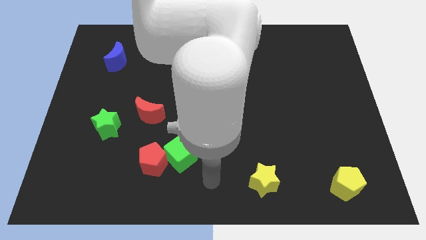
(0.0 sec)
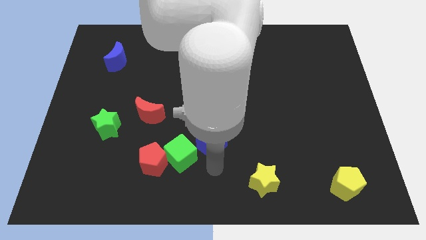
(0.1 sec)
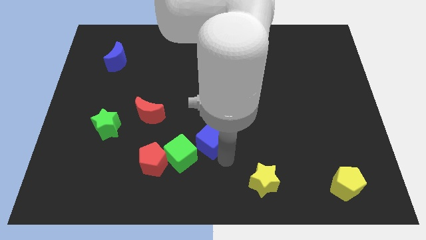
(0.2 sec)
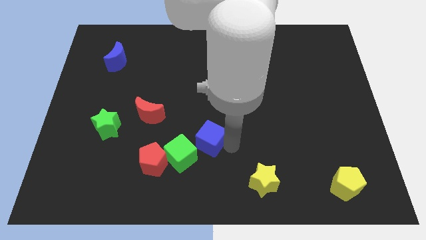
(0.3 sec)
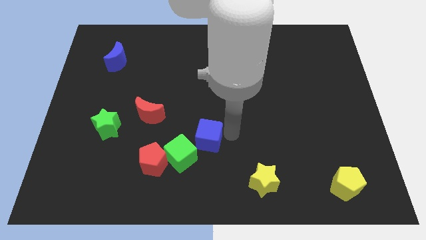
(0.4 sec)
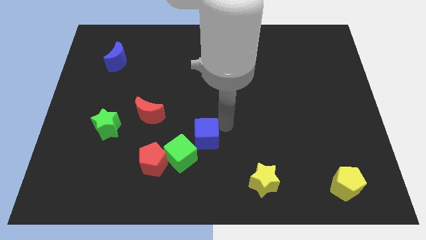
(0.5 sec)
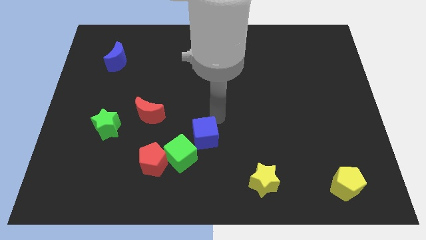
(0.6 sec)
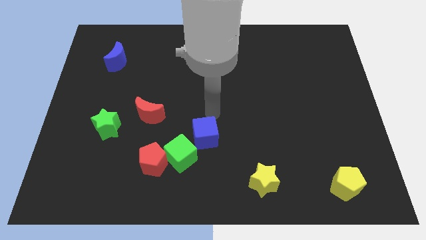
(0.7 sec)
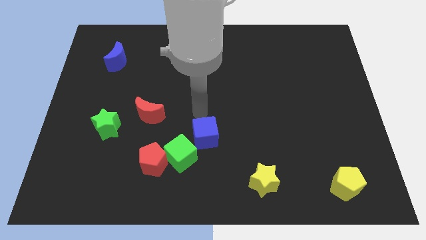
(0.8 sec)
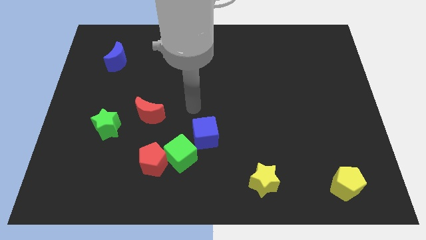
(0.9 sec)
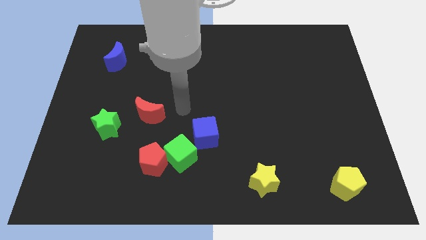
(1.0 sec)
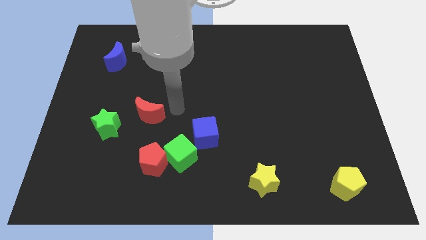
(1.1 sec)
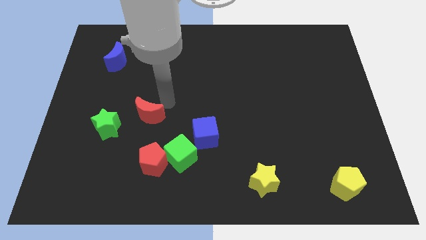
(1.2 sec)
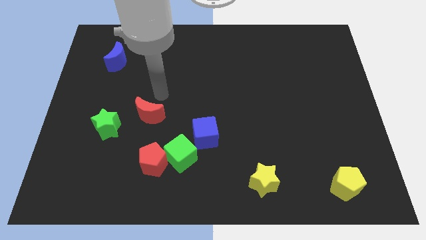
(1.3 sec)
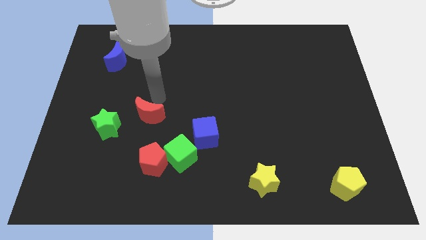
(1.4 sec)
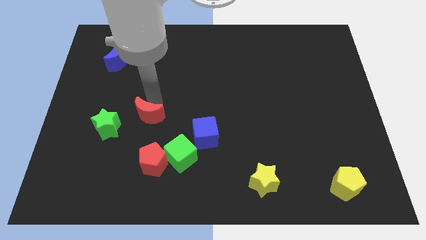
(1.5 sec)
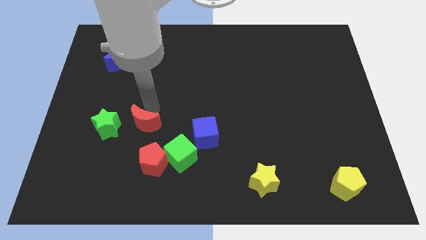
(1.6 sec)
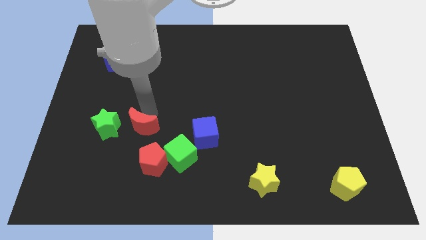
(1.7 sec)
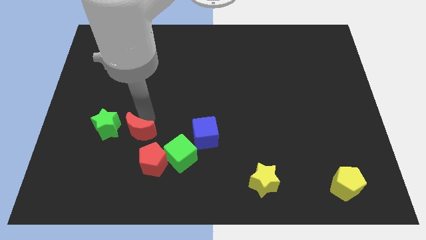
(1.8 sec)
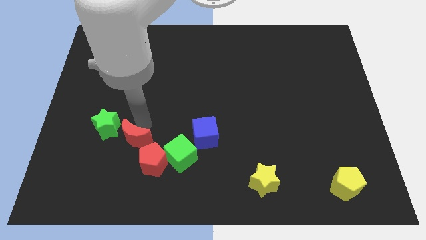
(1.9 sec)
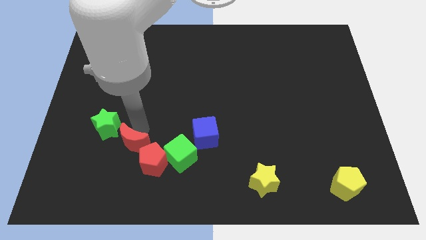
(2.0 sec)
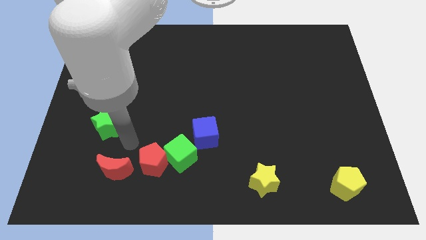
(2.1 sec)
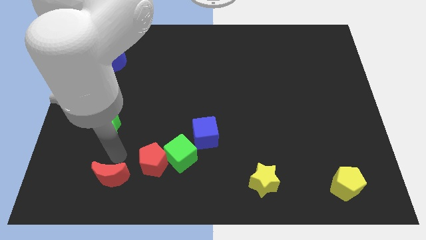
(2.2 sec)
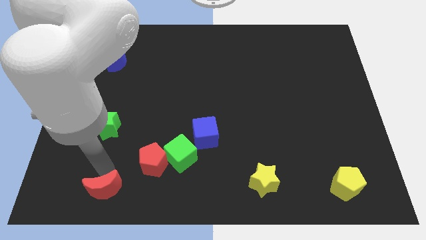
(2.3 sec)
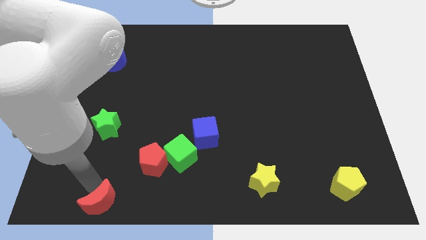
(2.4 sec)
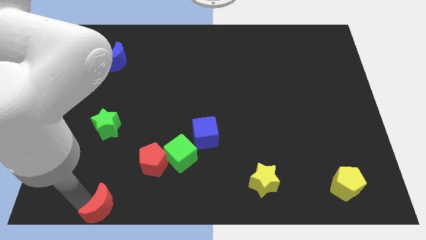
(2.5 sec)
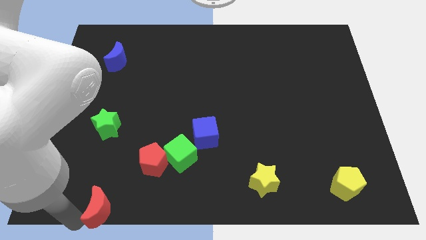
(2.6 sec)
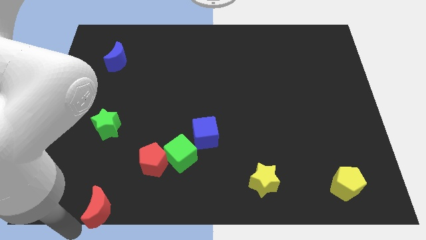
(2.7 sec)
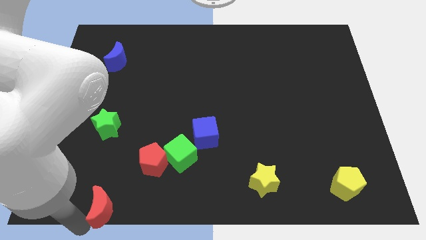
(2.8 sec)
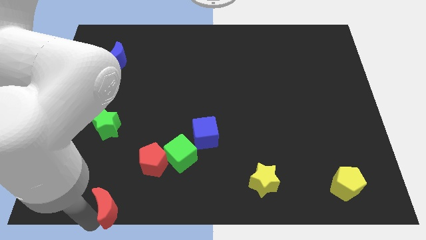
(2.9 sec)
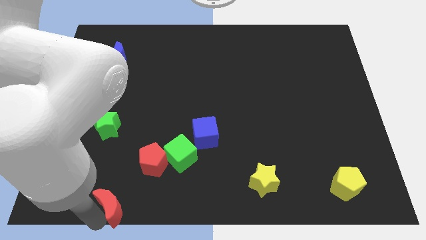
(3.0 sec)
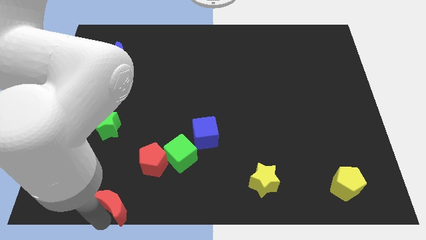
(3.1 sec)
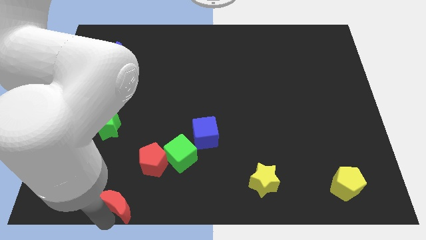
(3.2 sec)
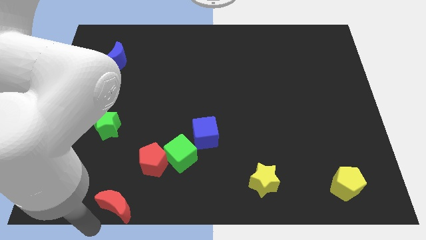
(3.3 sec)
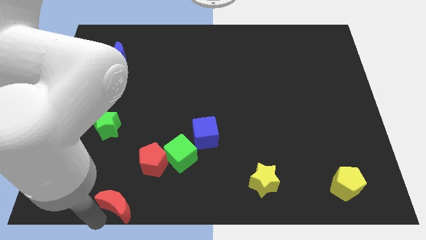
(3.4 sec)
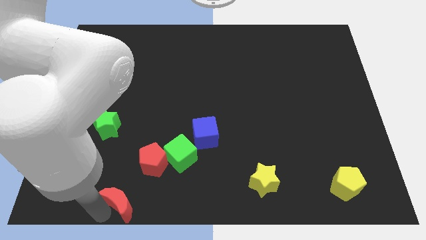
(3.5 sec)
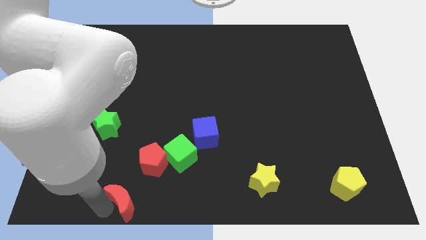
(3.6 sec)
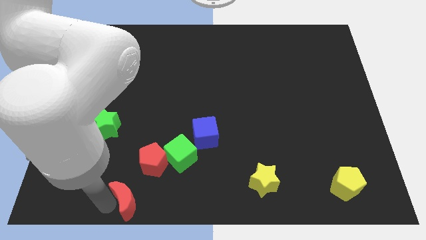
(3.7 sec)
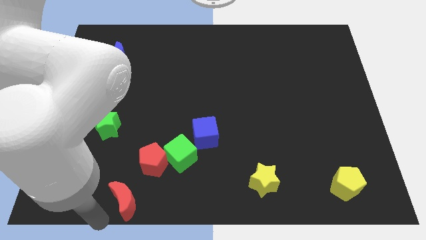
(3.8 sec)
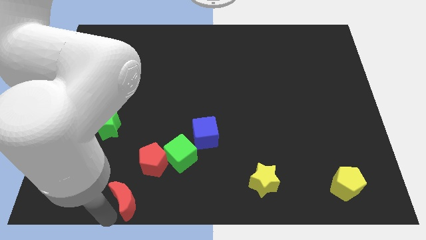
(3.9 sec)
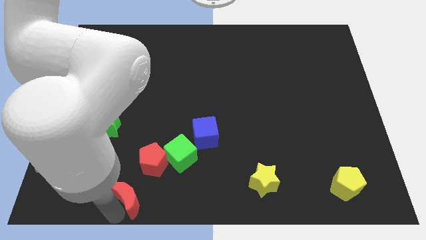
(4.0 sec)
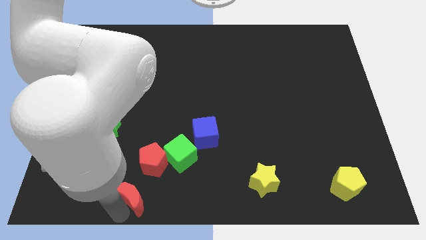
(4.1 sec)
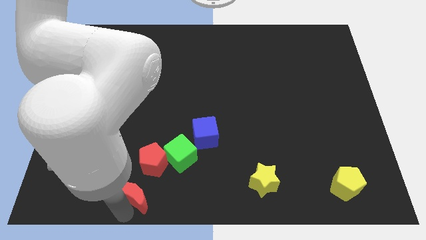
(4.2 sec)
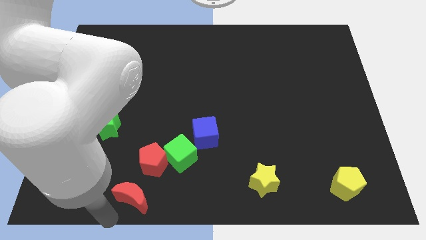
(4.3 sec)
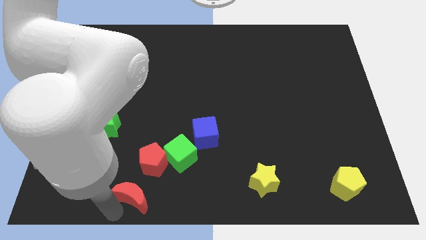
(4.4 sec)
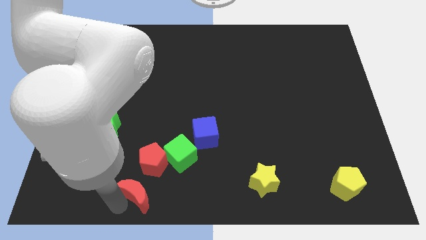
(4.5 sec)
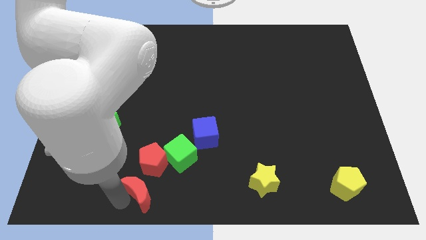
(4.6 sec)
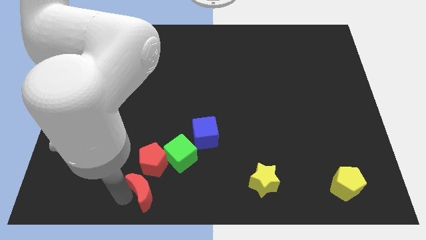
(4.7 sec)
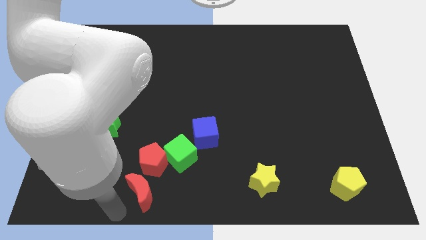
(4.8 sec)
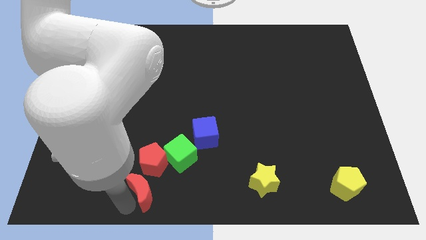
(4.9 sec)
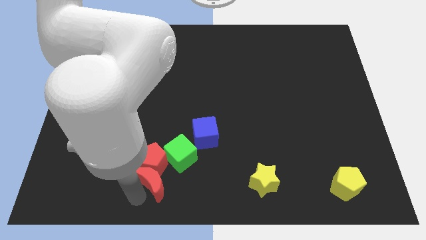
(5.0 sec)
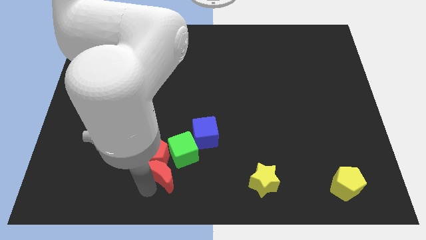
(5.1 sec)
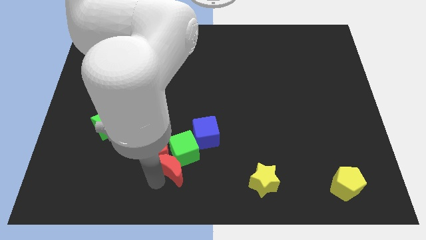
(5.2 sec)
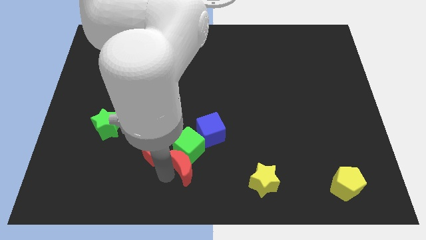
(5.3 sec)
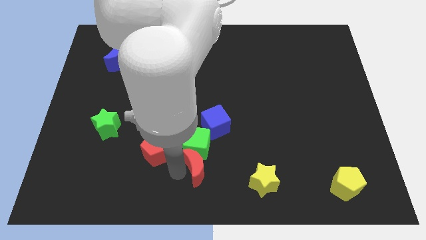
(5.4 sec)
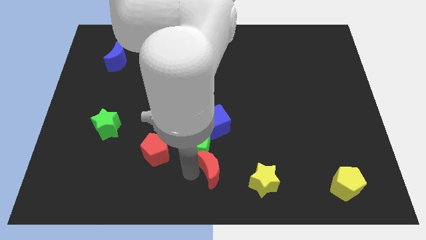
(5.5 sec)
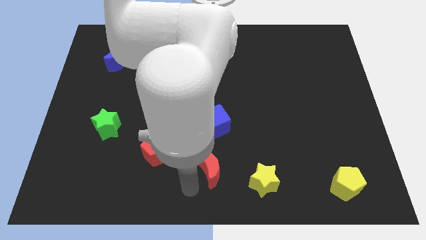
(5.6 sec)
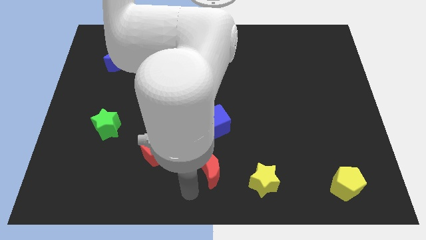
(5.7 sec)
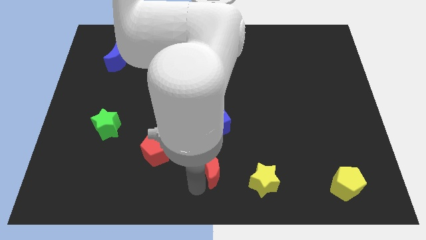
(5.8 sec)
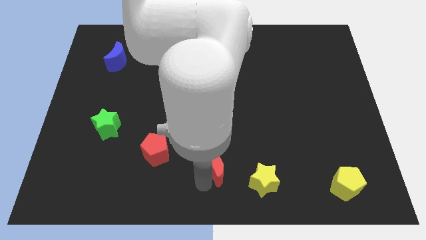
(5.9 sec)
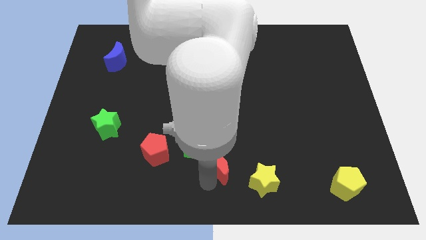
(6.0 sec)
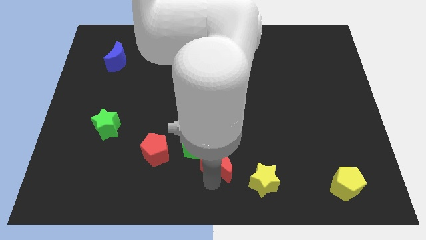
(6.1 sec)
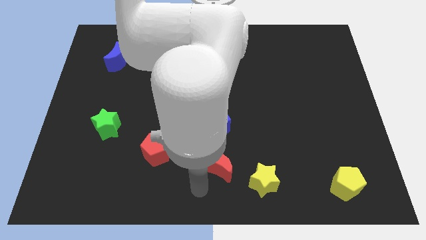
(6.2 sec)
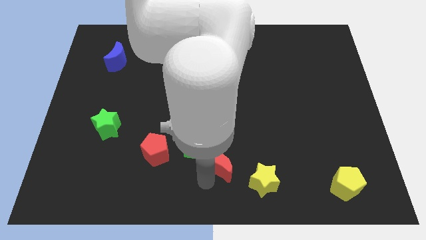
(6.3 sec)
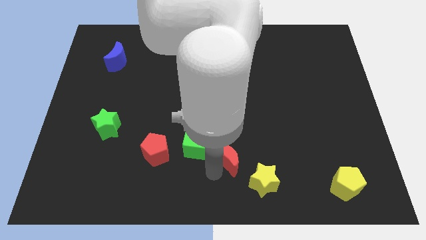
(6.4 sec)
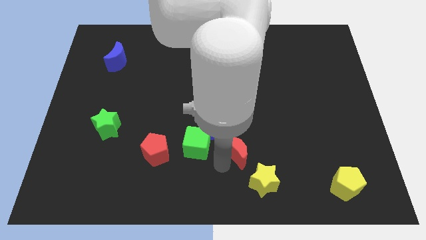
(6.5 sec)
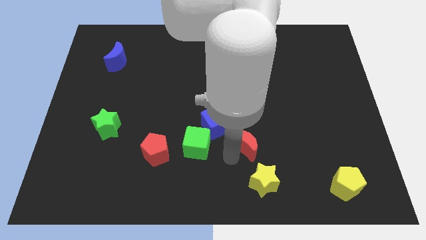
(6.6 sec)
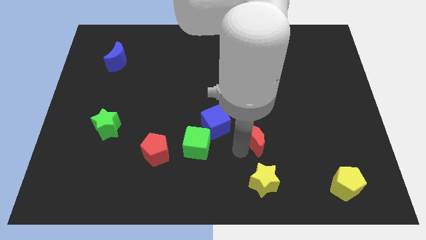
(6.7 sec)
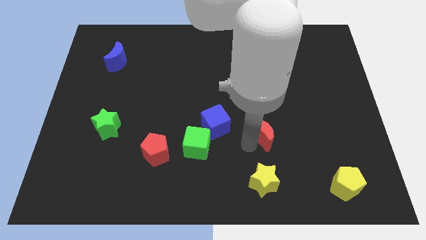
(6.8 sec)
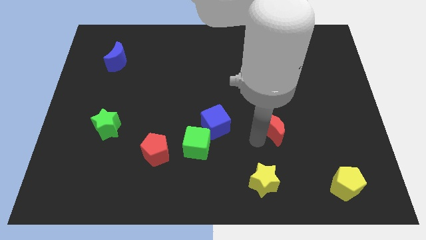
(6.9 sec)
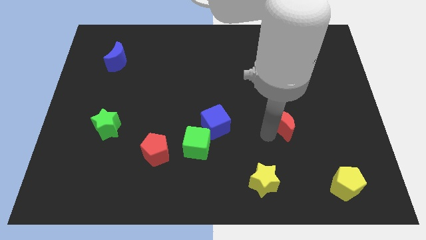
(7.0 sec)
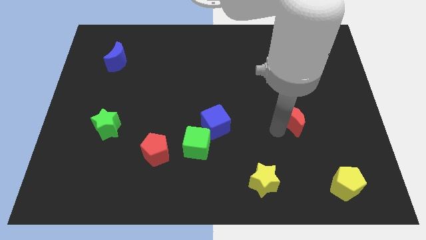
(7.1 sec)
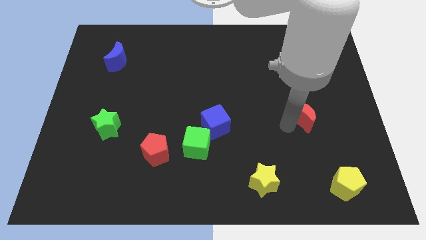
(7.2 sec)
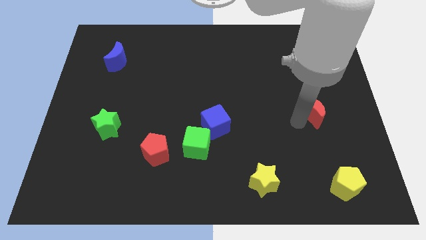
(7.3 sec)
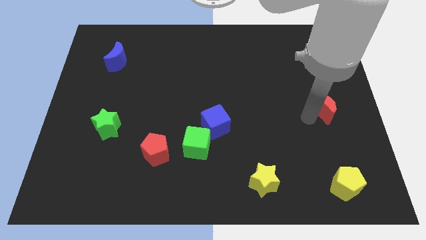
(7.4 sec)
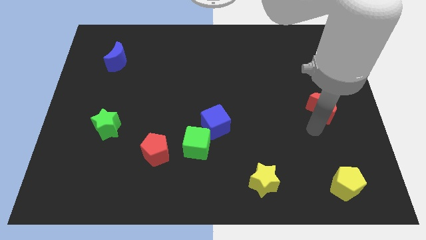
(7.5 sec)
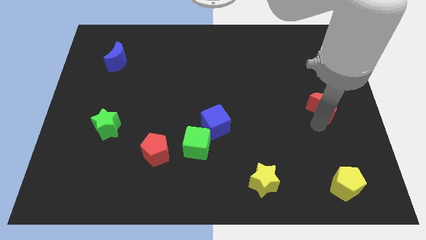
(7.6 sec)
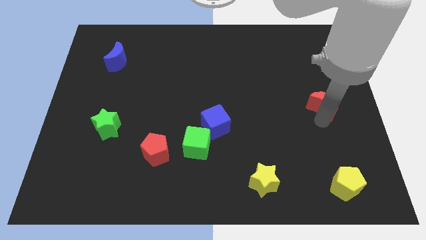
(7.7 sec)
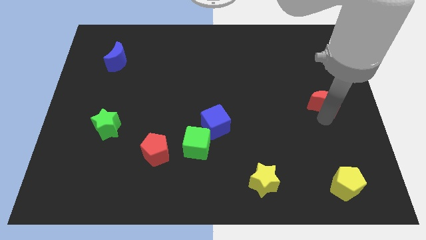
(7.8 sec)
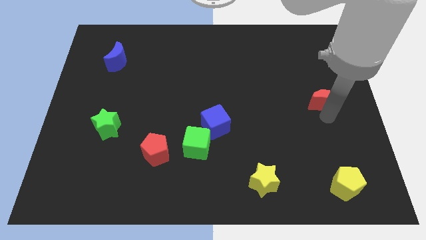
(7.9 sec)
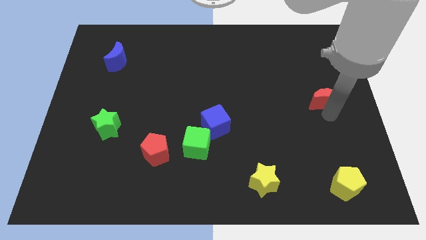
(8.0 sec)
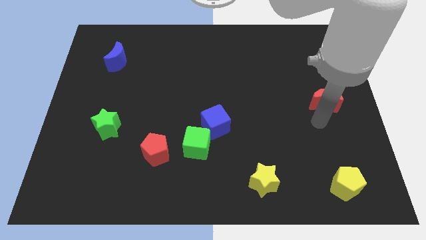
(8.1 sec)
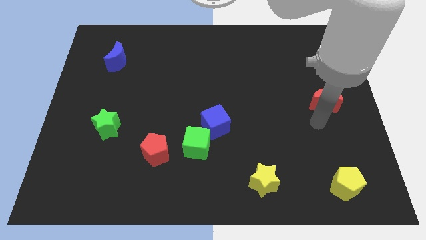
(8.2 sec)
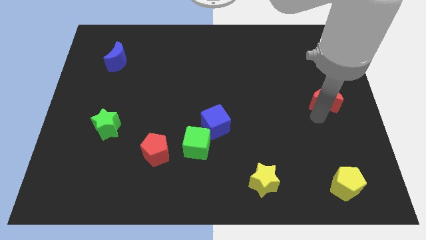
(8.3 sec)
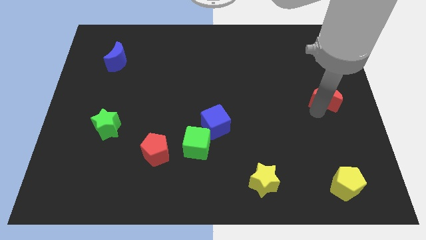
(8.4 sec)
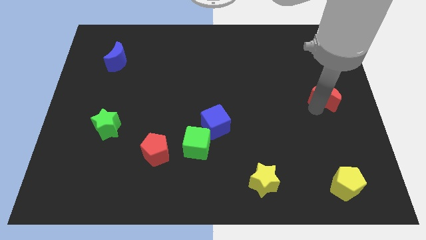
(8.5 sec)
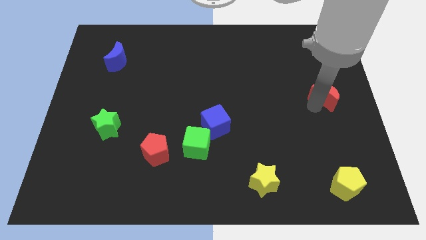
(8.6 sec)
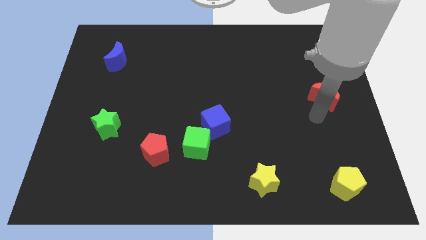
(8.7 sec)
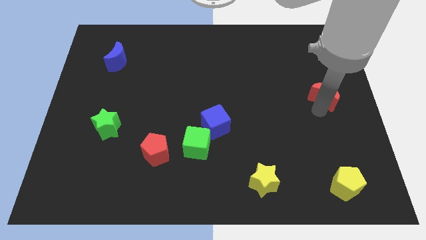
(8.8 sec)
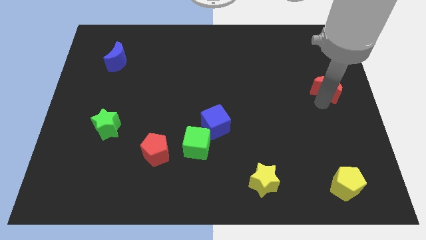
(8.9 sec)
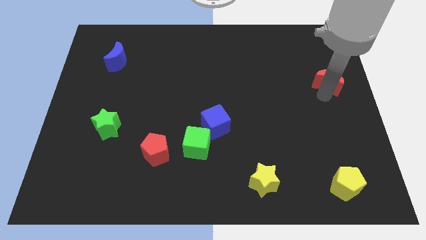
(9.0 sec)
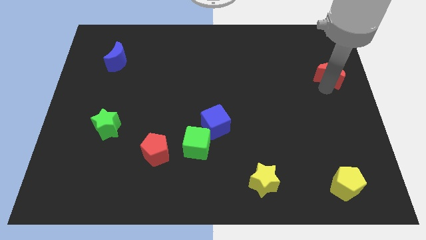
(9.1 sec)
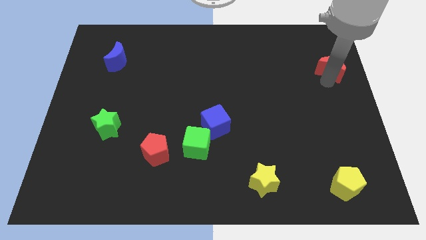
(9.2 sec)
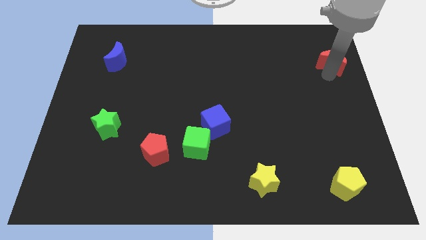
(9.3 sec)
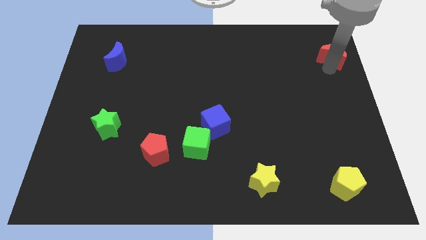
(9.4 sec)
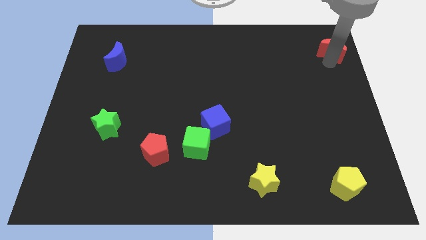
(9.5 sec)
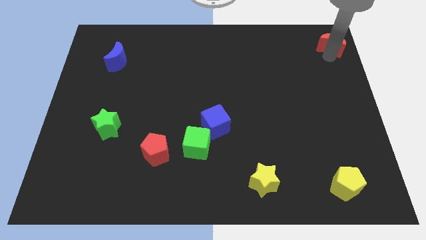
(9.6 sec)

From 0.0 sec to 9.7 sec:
slide the red moon to the top right of the board
